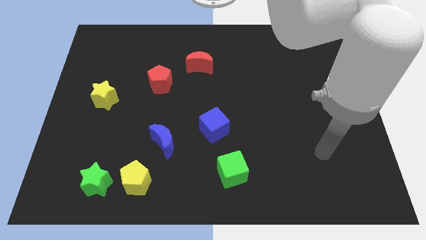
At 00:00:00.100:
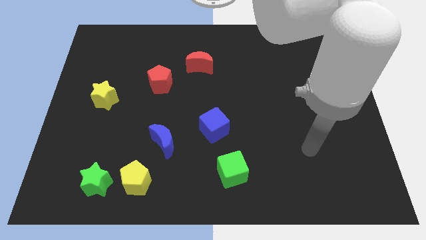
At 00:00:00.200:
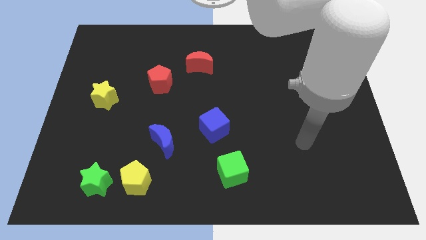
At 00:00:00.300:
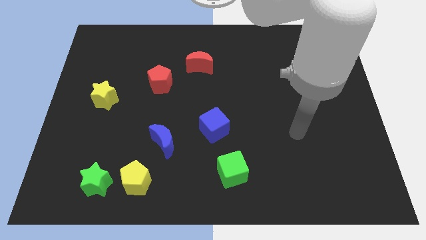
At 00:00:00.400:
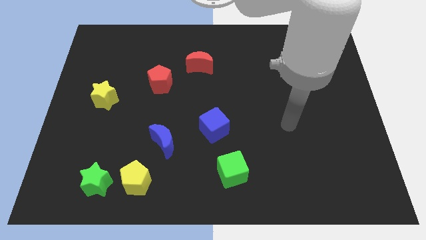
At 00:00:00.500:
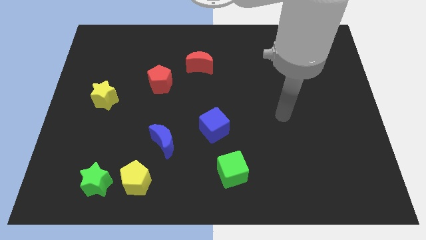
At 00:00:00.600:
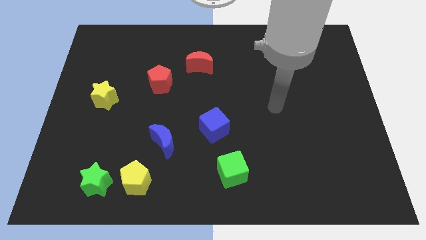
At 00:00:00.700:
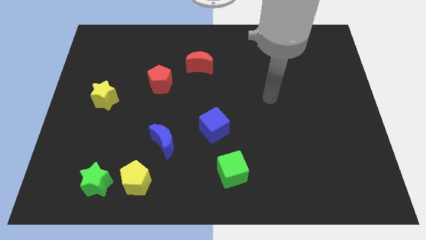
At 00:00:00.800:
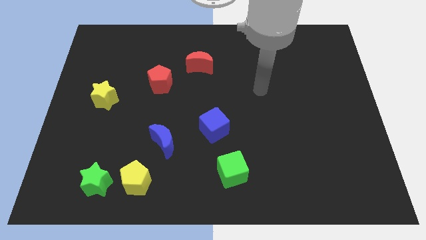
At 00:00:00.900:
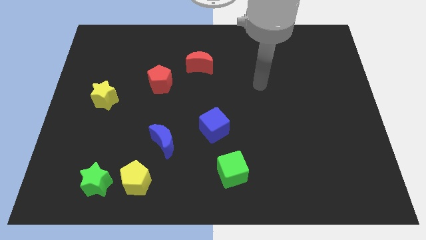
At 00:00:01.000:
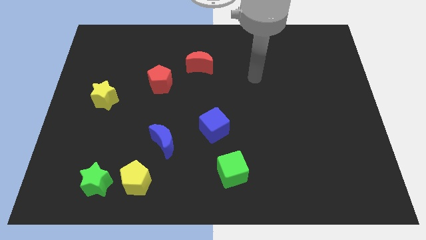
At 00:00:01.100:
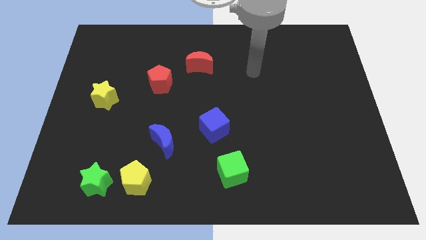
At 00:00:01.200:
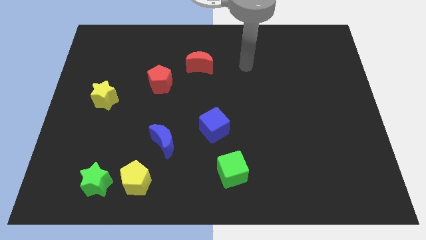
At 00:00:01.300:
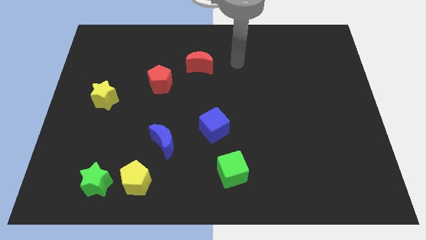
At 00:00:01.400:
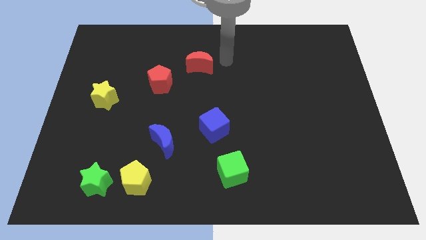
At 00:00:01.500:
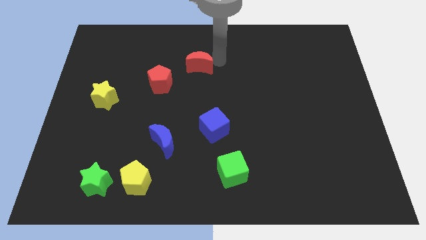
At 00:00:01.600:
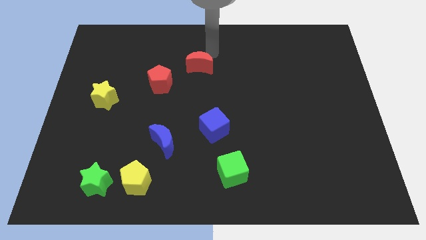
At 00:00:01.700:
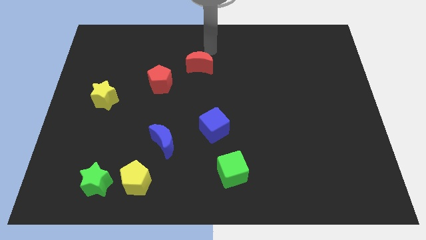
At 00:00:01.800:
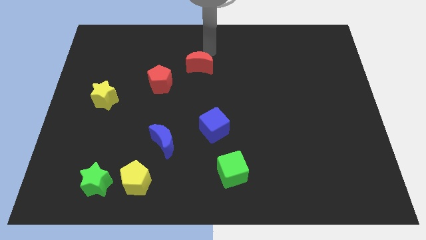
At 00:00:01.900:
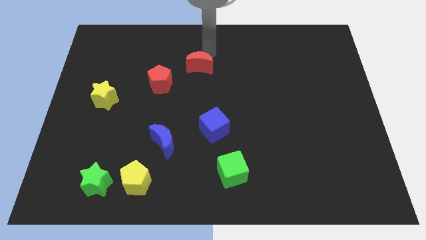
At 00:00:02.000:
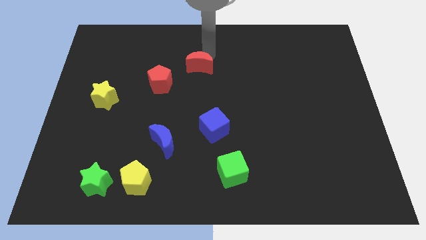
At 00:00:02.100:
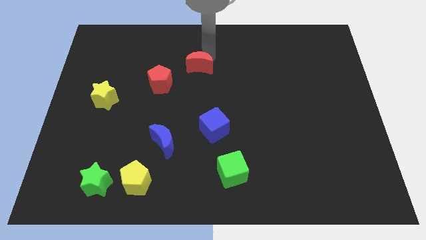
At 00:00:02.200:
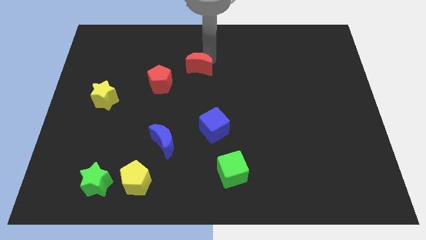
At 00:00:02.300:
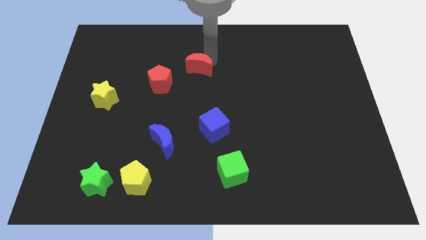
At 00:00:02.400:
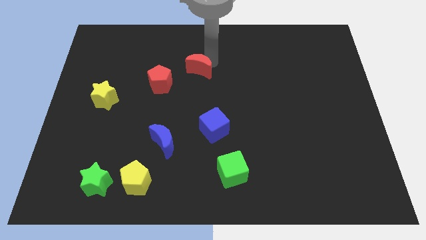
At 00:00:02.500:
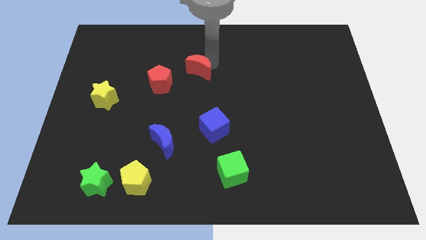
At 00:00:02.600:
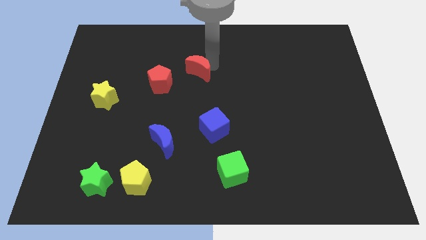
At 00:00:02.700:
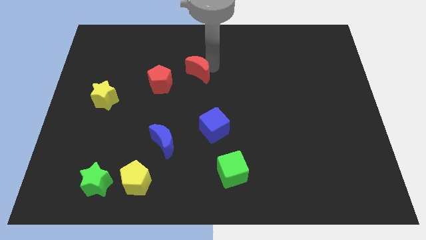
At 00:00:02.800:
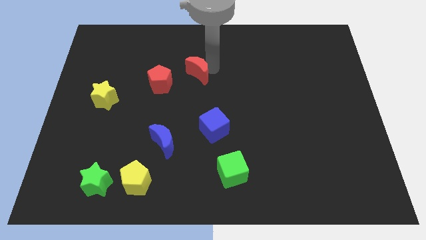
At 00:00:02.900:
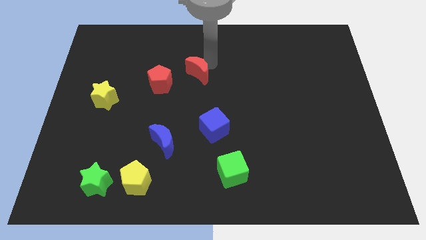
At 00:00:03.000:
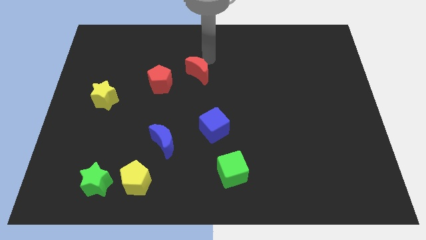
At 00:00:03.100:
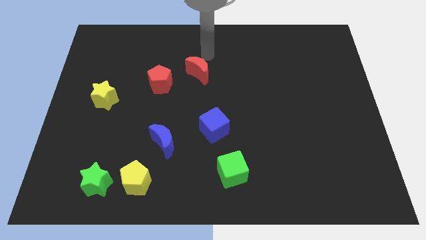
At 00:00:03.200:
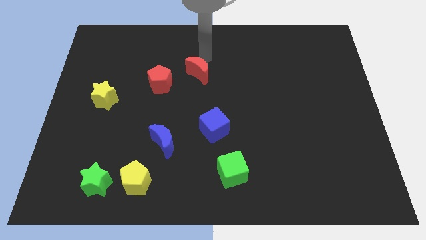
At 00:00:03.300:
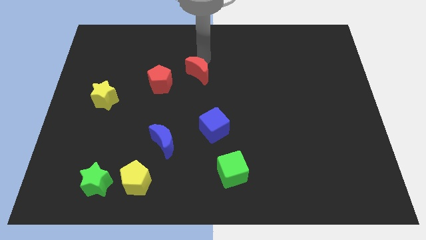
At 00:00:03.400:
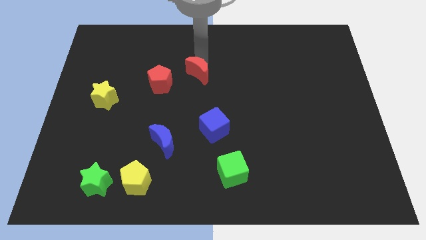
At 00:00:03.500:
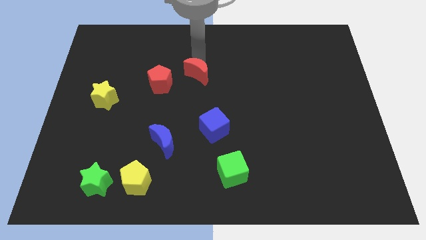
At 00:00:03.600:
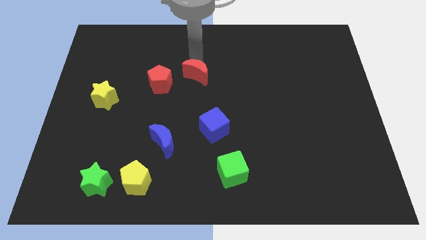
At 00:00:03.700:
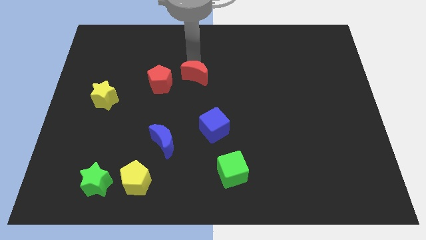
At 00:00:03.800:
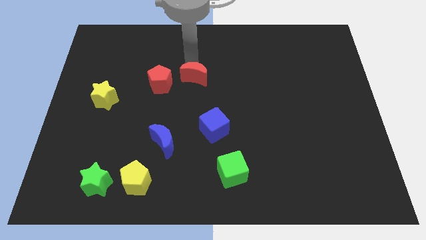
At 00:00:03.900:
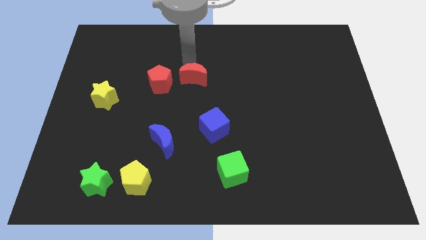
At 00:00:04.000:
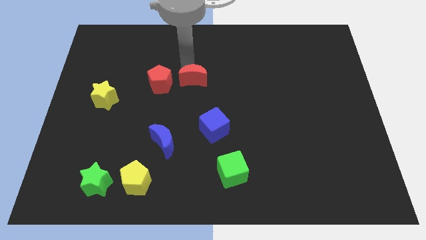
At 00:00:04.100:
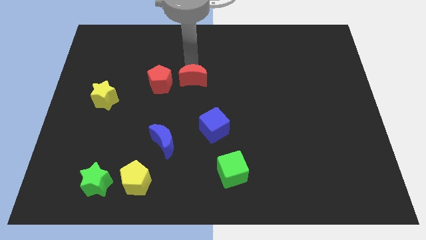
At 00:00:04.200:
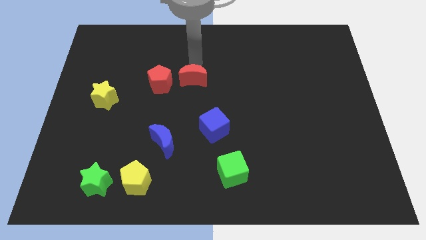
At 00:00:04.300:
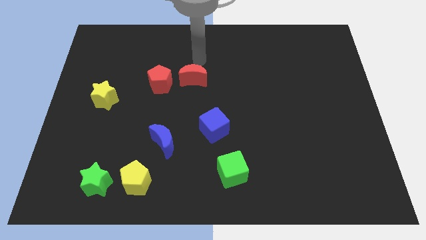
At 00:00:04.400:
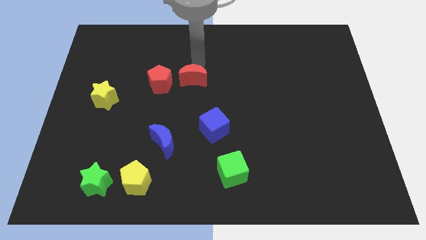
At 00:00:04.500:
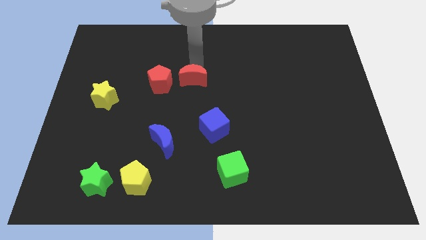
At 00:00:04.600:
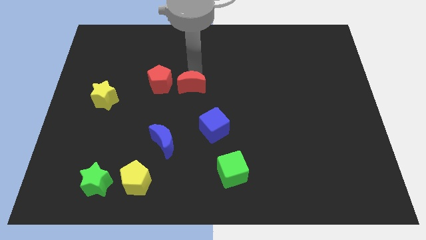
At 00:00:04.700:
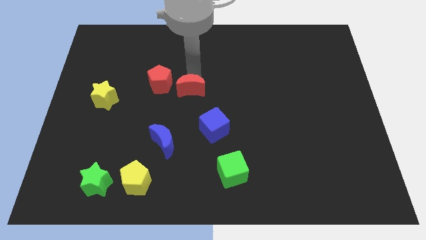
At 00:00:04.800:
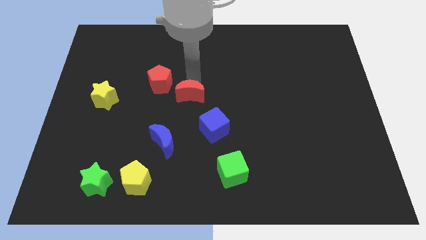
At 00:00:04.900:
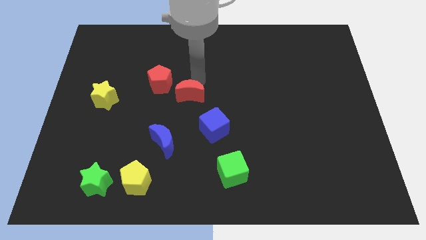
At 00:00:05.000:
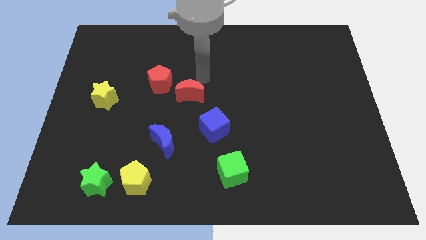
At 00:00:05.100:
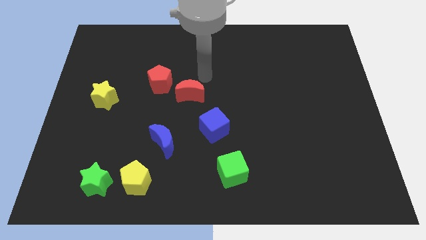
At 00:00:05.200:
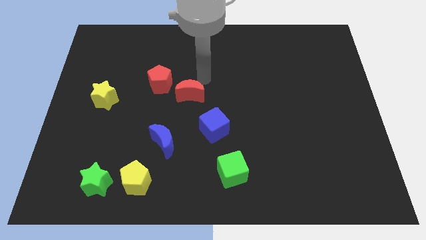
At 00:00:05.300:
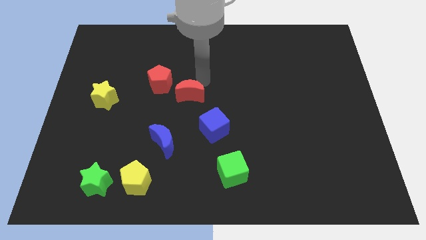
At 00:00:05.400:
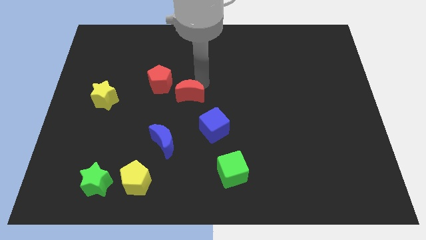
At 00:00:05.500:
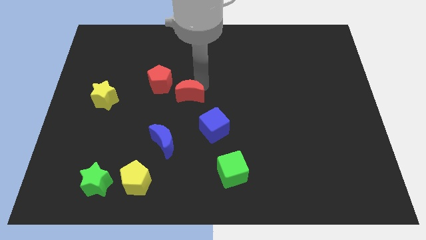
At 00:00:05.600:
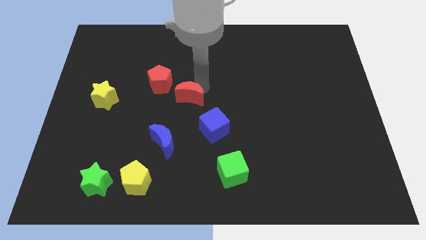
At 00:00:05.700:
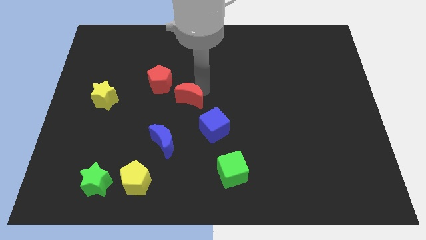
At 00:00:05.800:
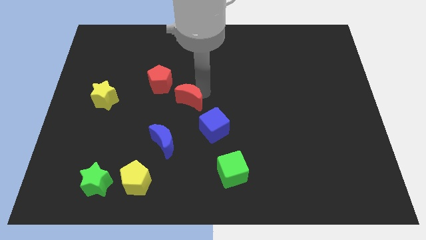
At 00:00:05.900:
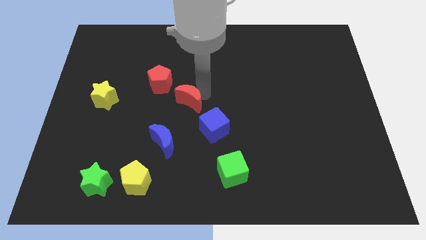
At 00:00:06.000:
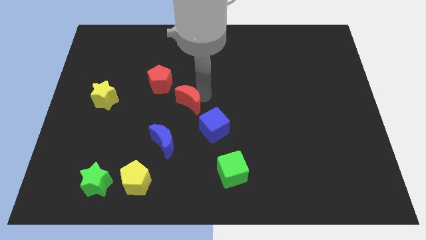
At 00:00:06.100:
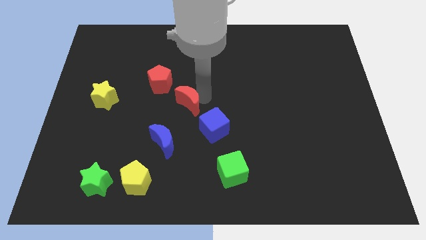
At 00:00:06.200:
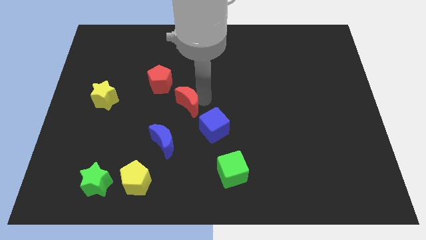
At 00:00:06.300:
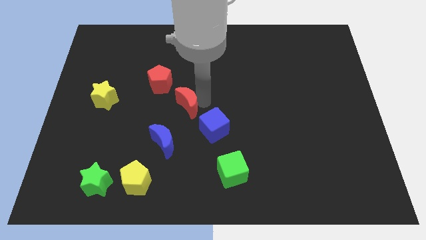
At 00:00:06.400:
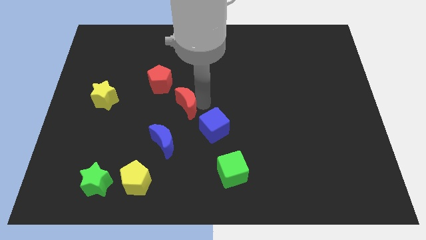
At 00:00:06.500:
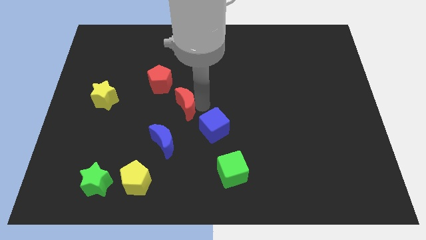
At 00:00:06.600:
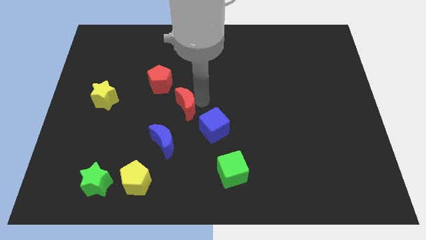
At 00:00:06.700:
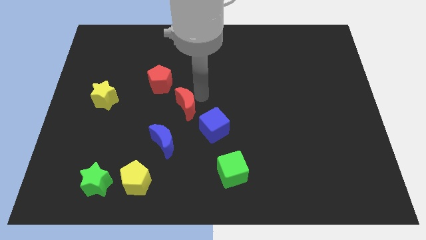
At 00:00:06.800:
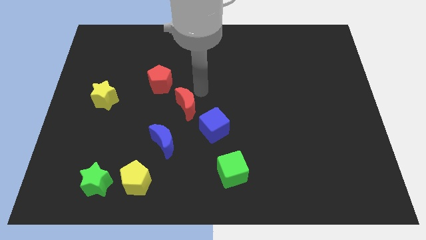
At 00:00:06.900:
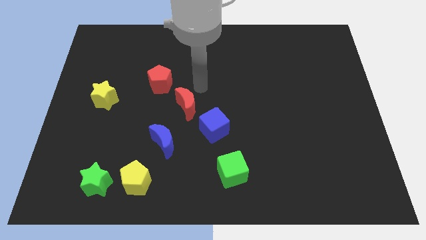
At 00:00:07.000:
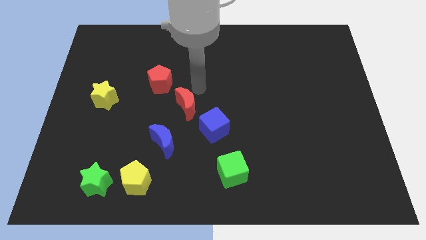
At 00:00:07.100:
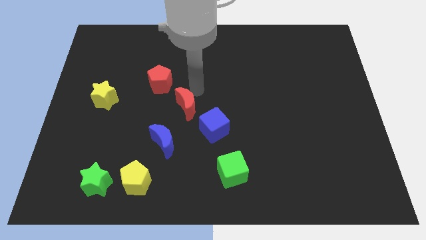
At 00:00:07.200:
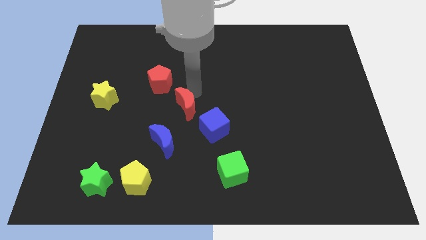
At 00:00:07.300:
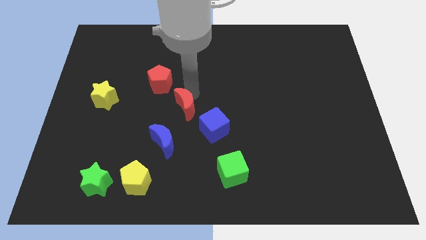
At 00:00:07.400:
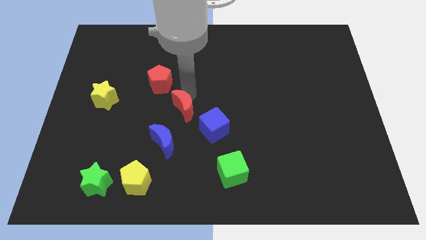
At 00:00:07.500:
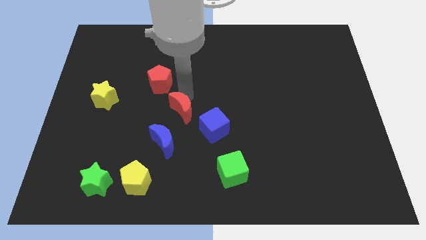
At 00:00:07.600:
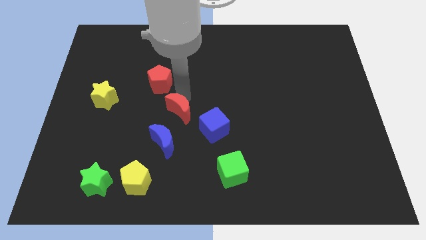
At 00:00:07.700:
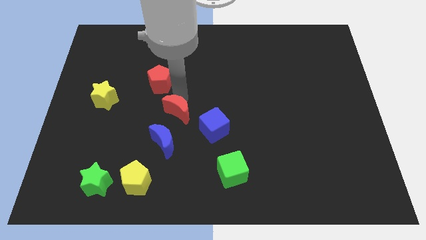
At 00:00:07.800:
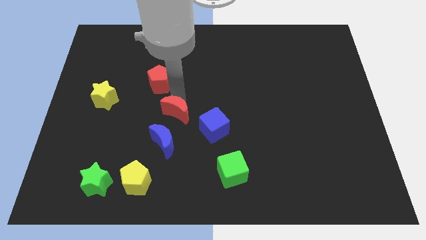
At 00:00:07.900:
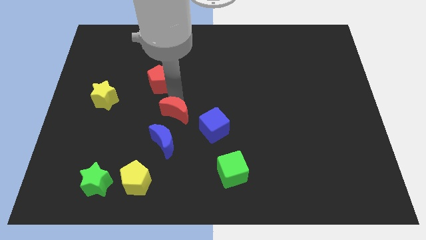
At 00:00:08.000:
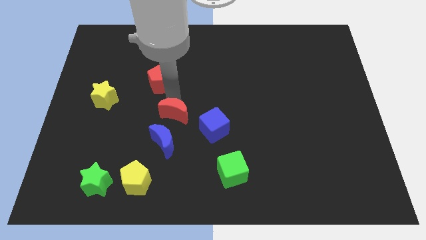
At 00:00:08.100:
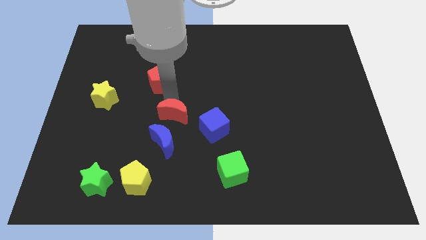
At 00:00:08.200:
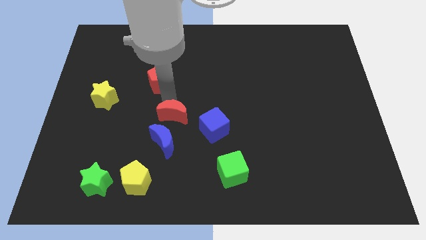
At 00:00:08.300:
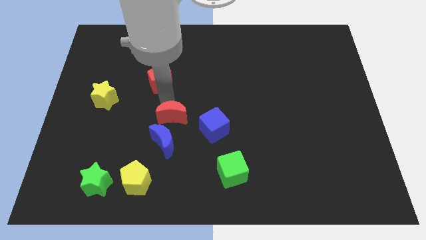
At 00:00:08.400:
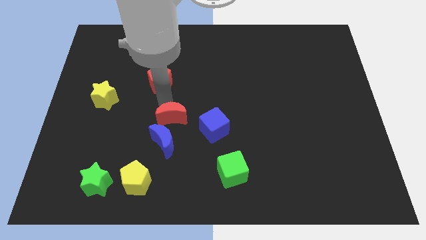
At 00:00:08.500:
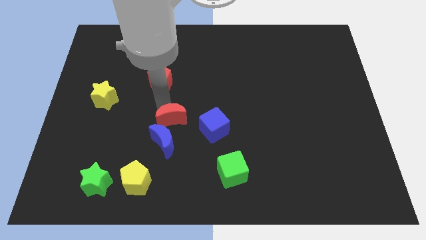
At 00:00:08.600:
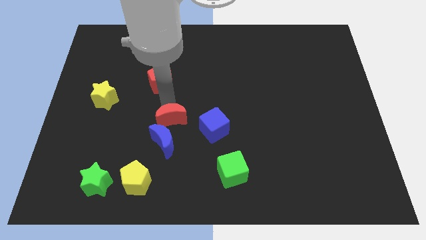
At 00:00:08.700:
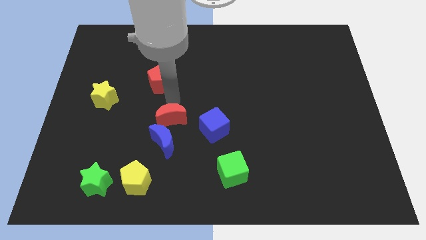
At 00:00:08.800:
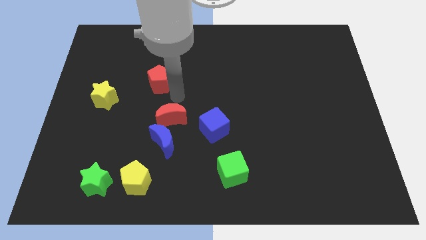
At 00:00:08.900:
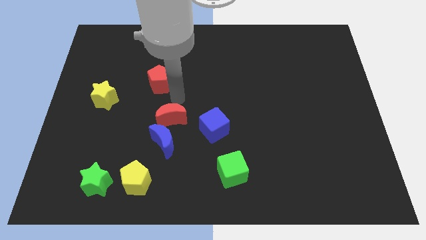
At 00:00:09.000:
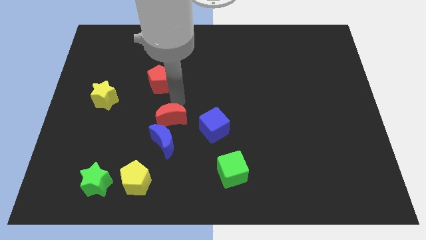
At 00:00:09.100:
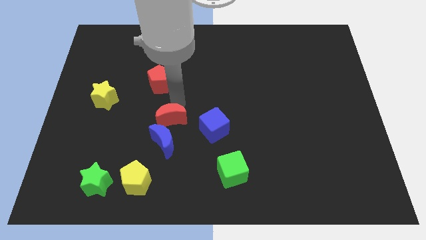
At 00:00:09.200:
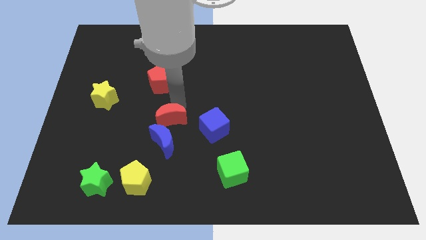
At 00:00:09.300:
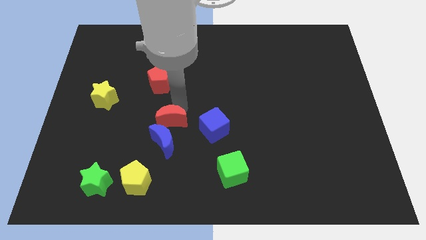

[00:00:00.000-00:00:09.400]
move the red moon next to the blue moon
